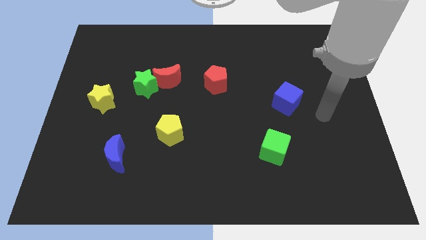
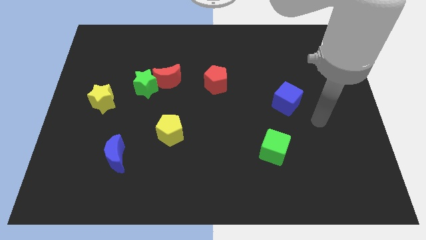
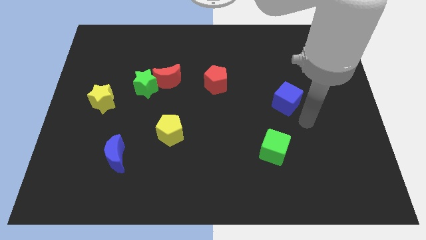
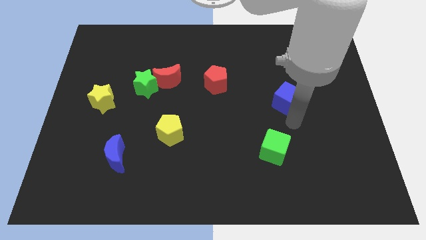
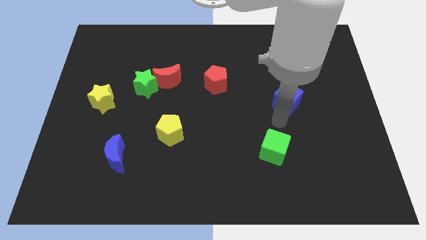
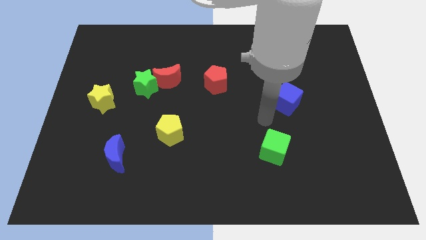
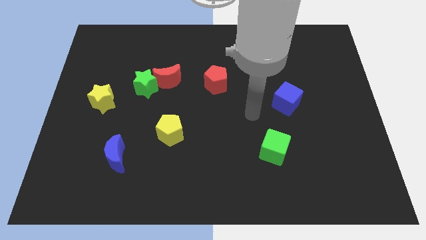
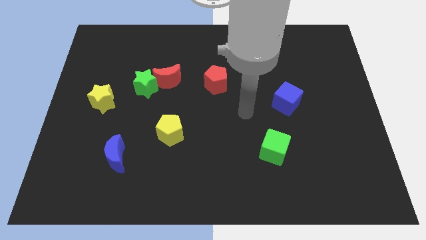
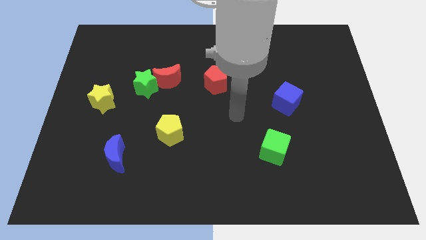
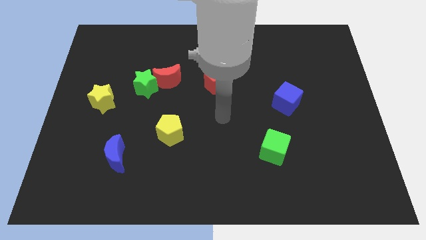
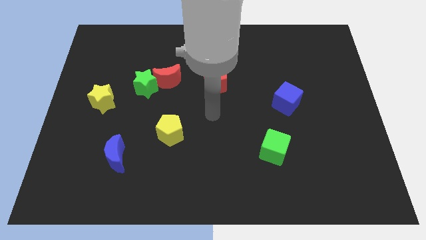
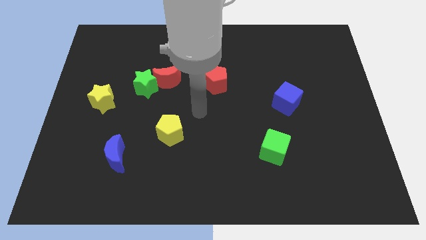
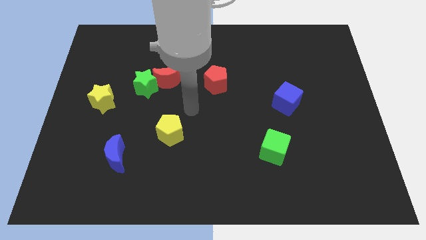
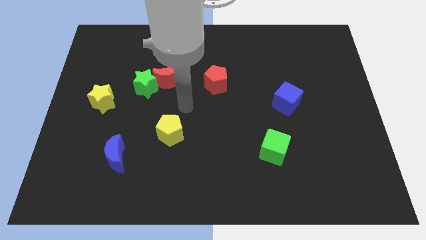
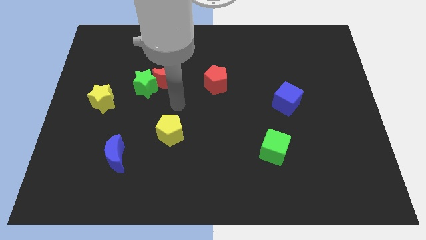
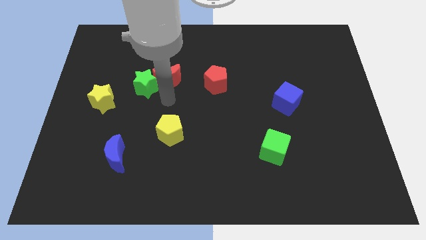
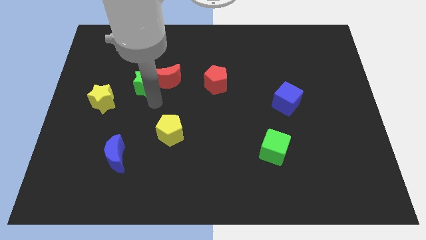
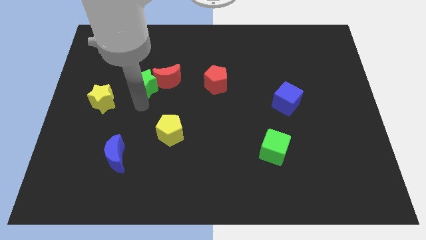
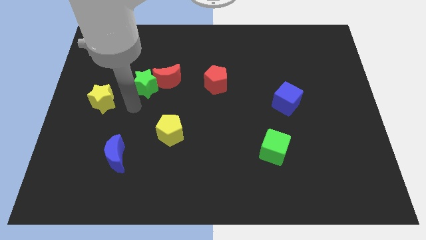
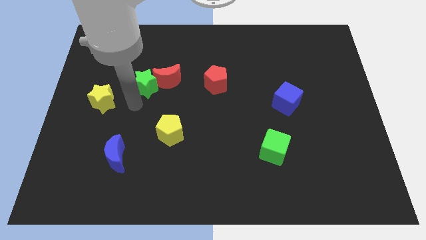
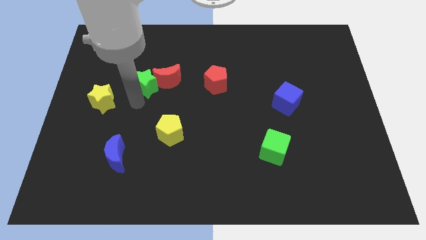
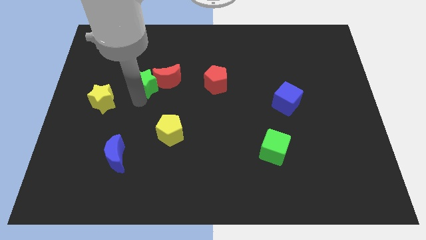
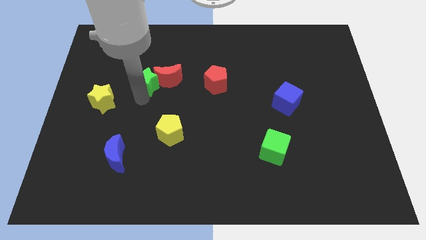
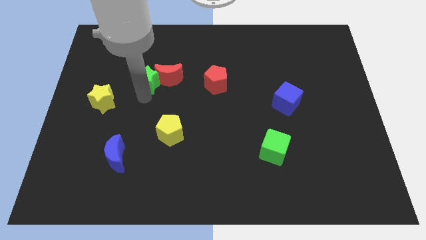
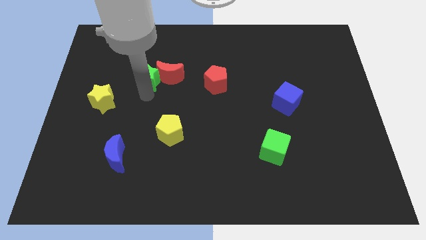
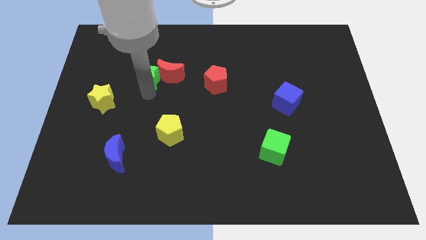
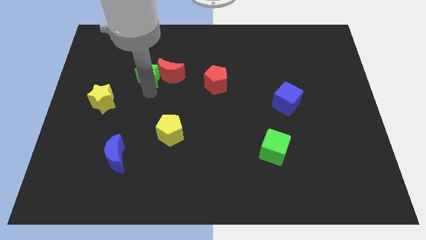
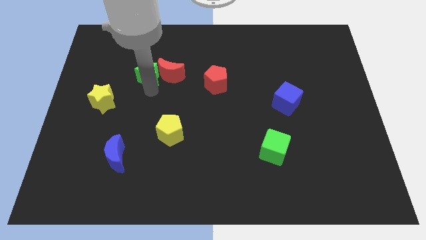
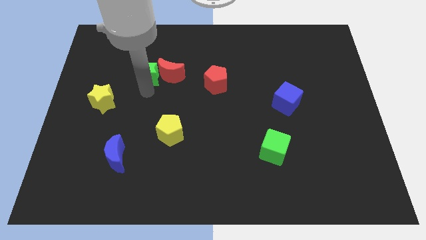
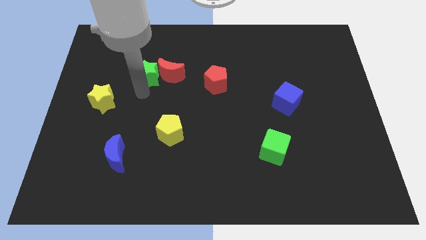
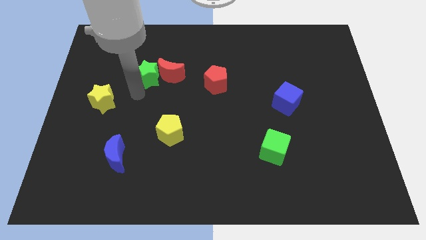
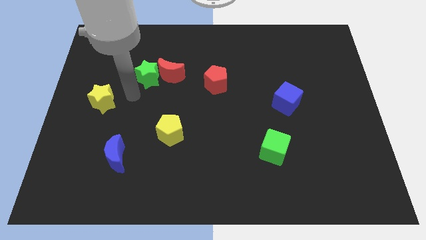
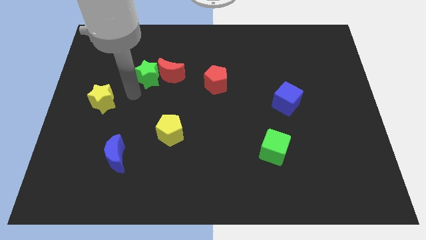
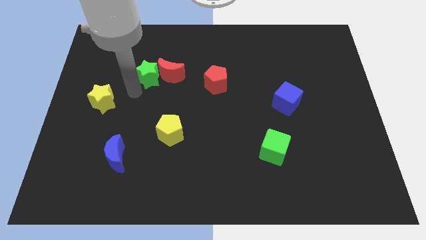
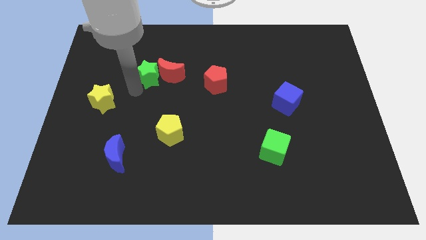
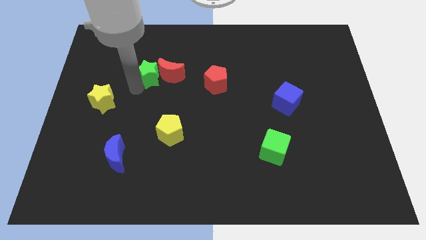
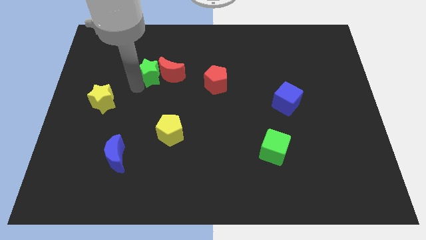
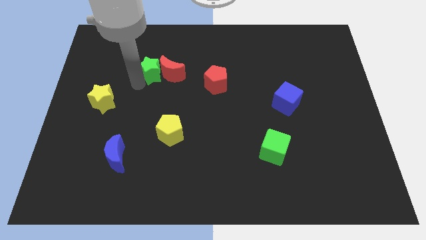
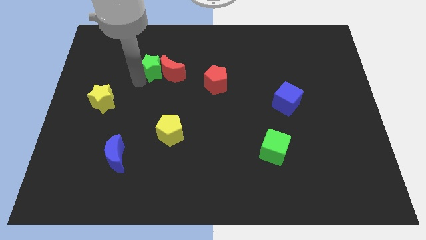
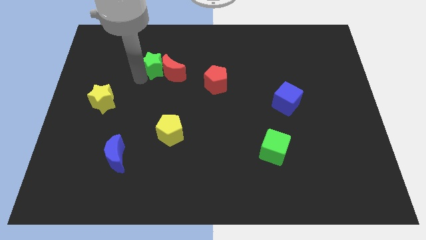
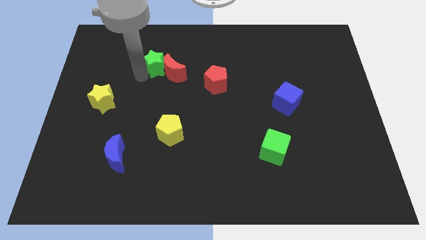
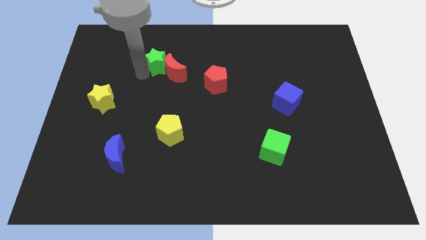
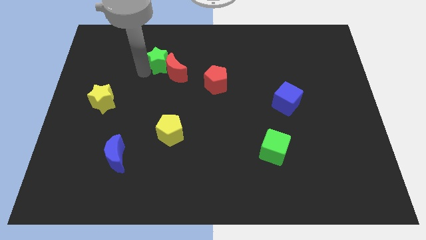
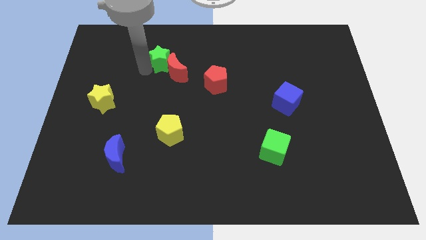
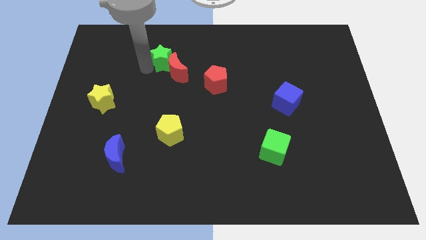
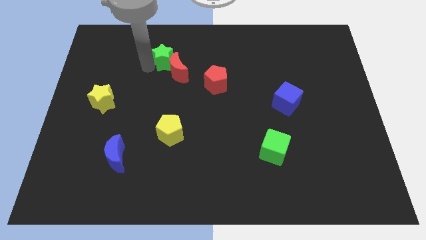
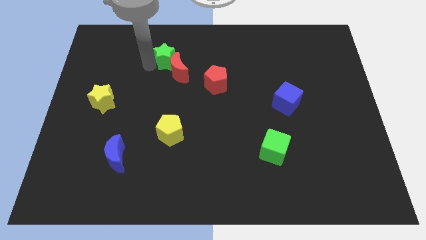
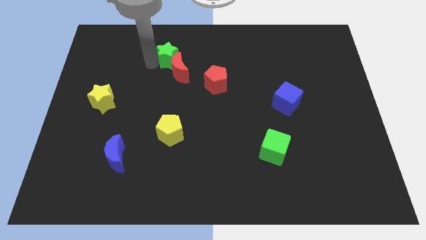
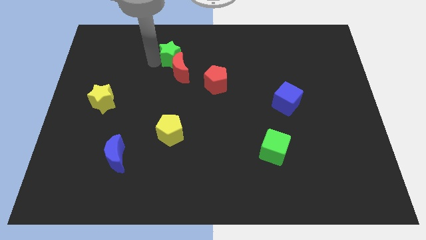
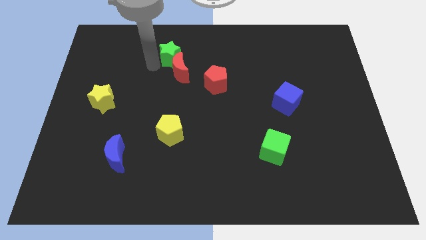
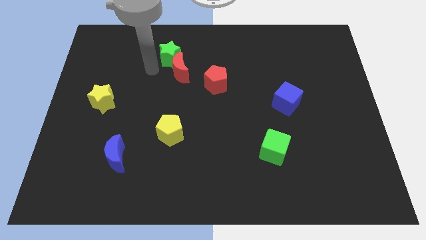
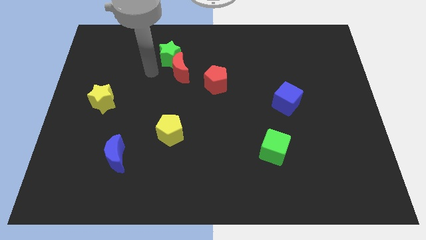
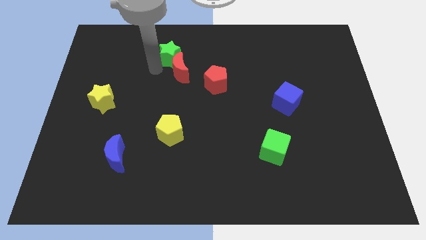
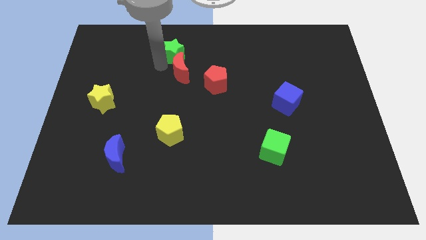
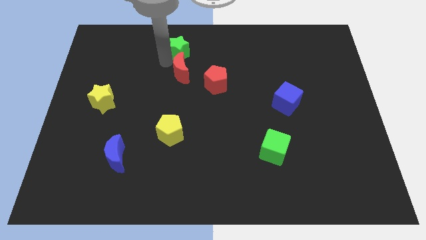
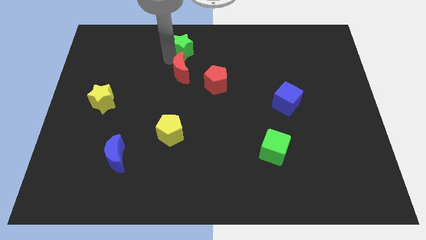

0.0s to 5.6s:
slide the green star to the towards your base

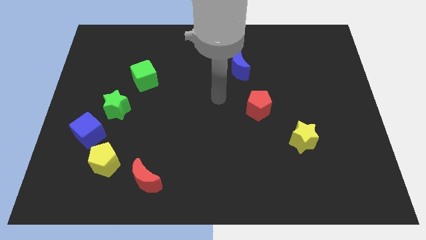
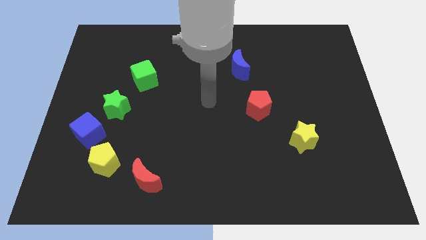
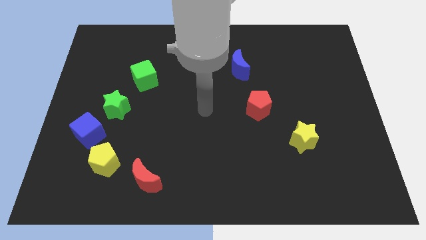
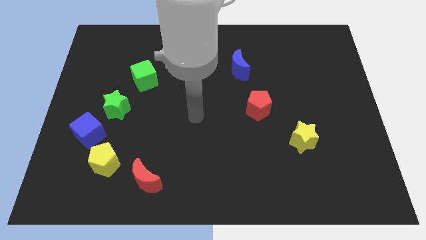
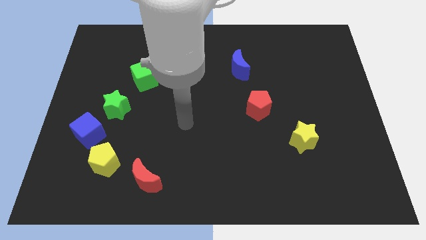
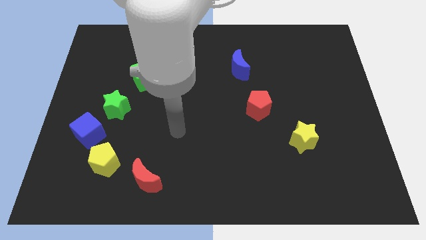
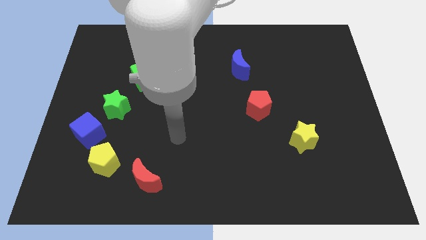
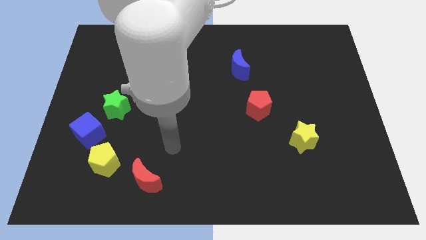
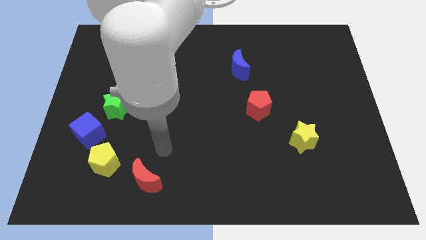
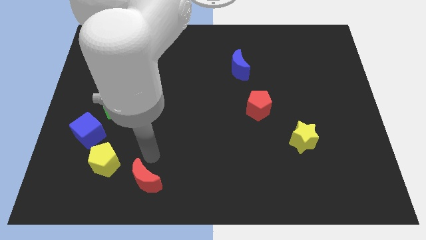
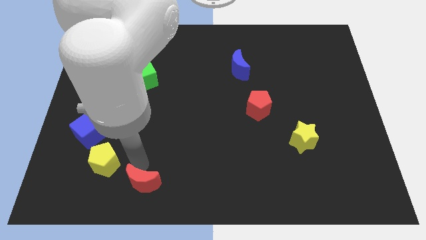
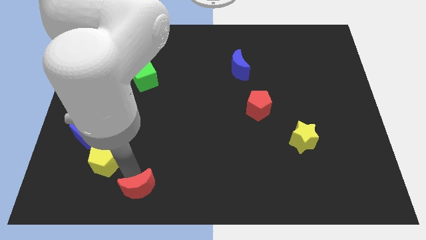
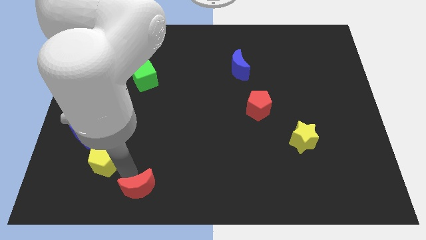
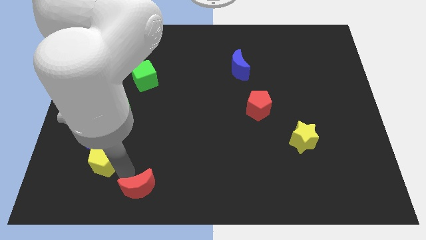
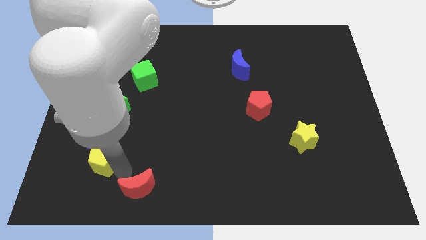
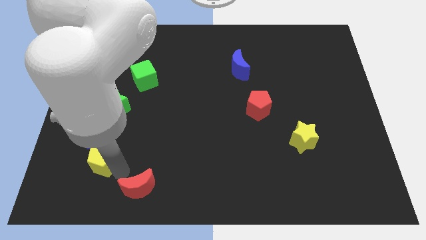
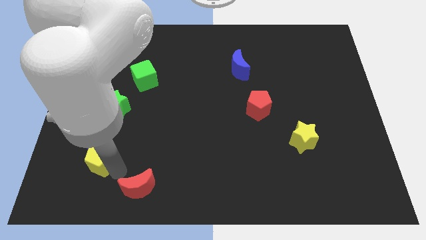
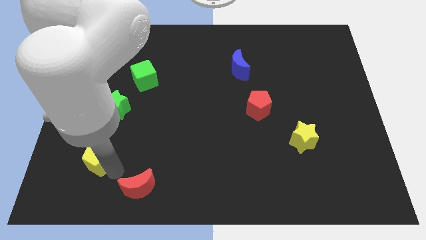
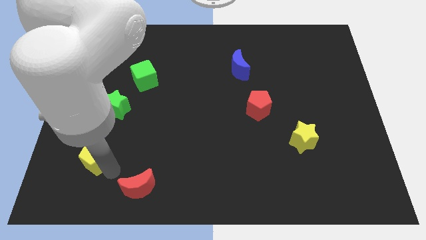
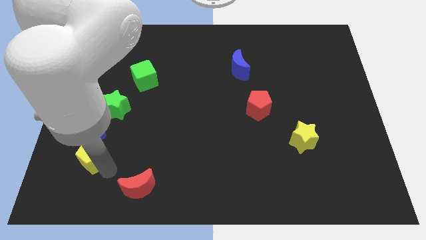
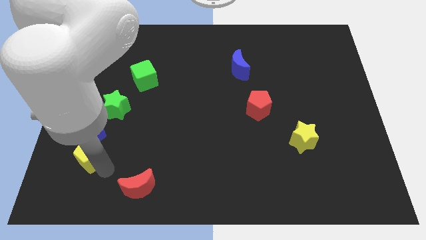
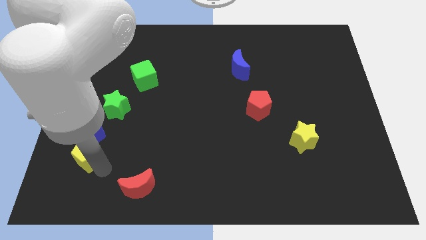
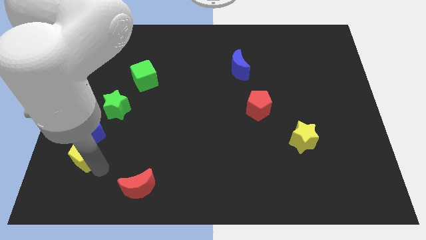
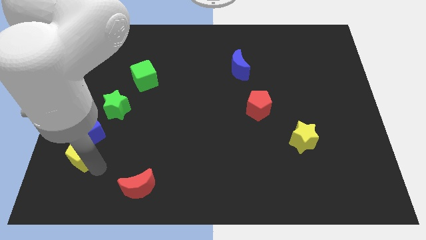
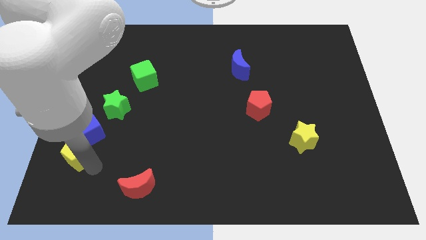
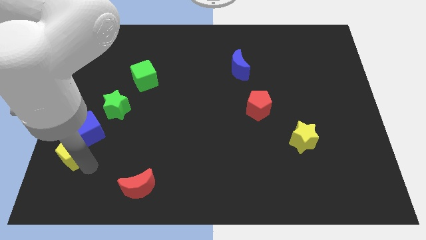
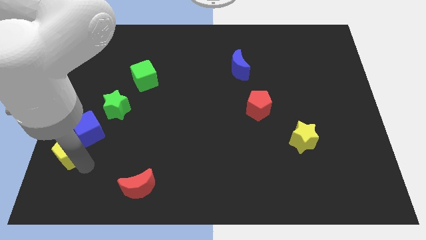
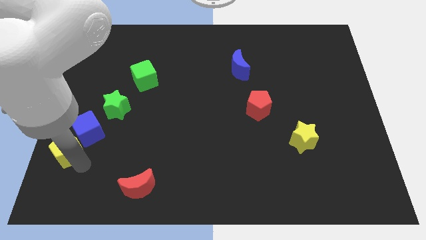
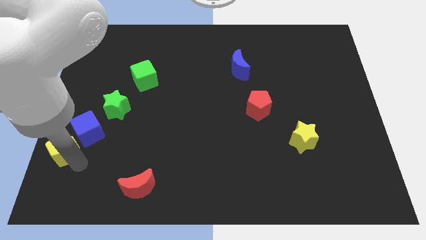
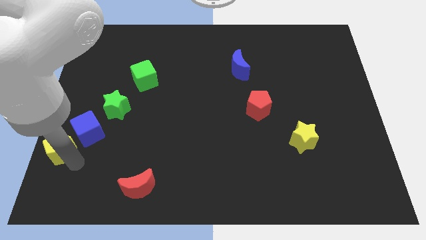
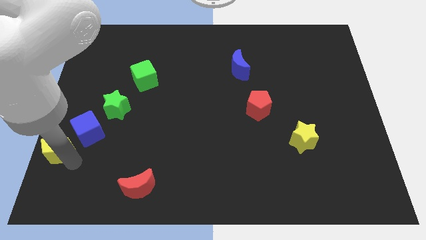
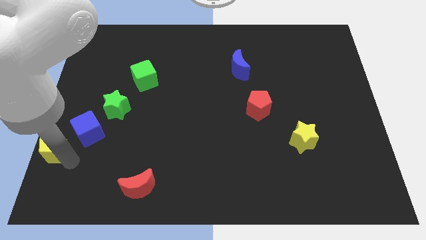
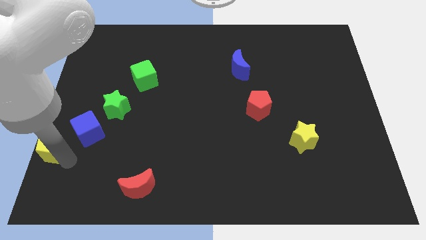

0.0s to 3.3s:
put the yellow pentagon to the left side of the board
